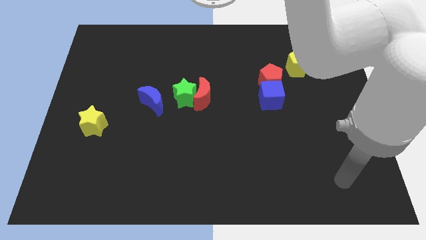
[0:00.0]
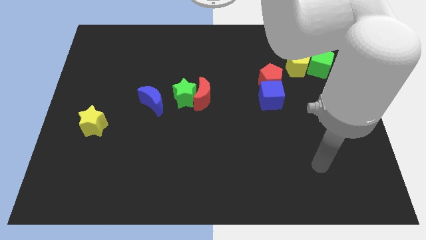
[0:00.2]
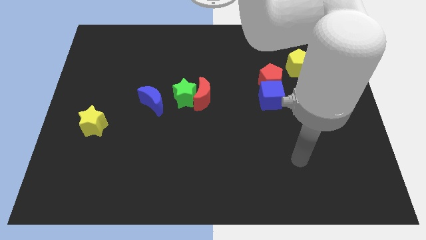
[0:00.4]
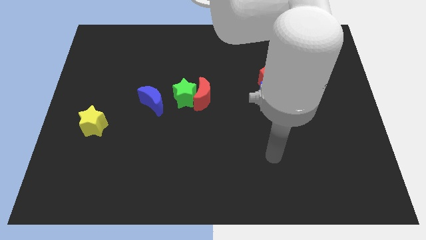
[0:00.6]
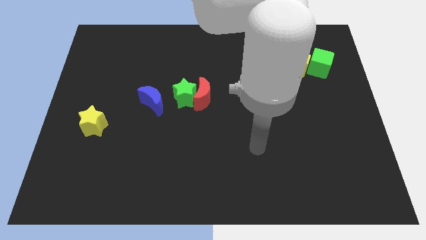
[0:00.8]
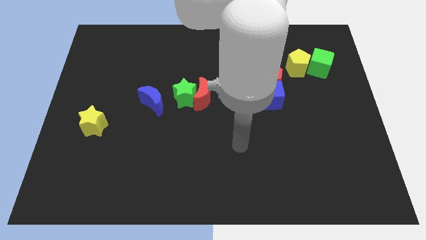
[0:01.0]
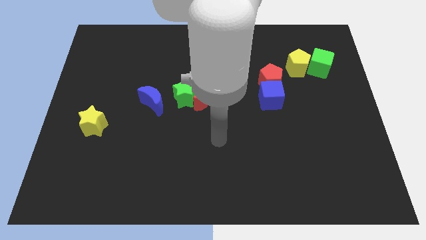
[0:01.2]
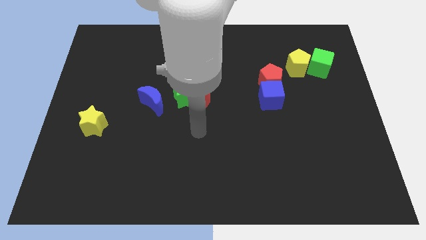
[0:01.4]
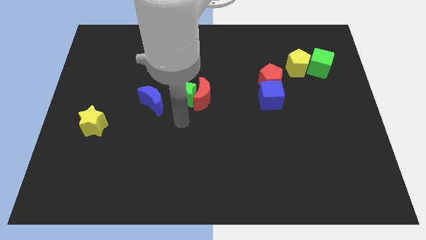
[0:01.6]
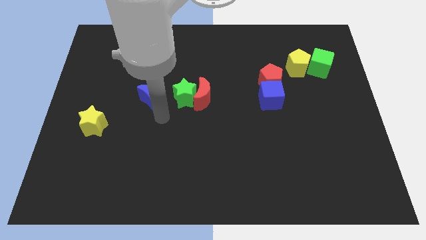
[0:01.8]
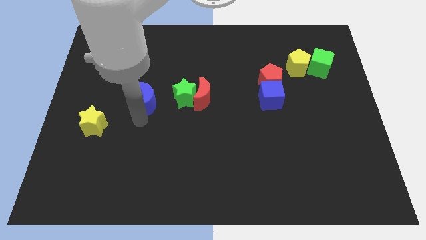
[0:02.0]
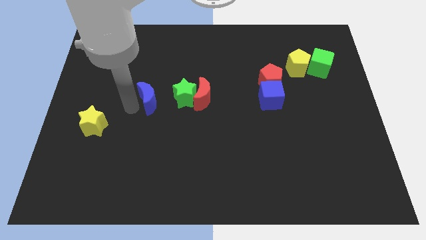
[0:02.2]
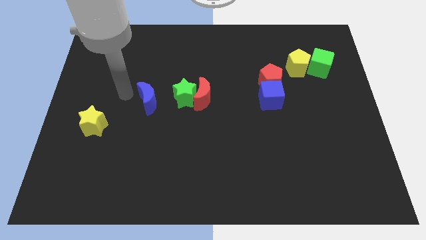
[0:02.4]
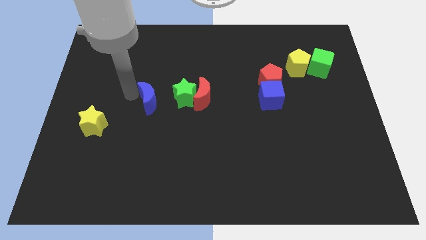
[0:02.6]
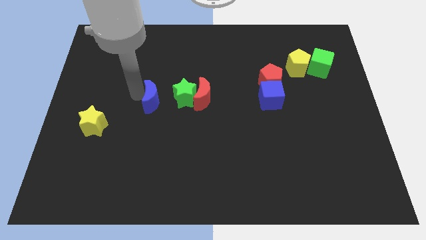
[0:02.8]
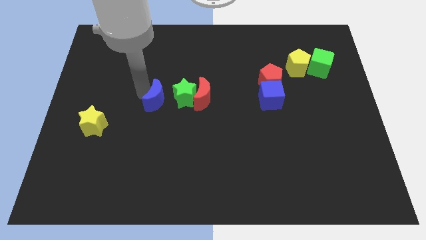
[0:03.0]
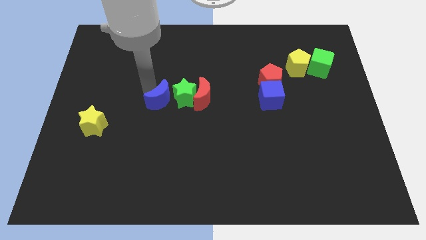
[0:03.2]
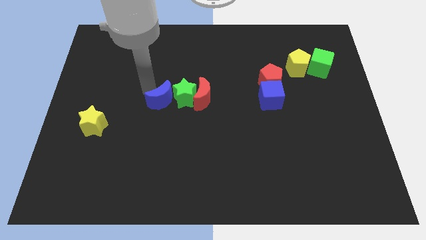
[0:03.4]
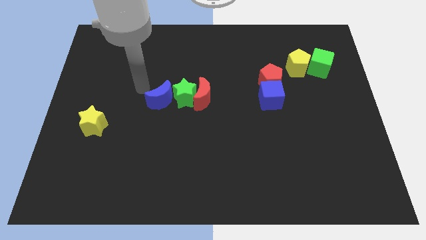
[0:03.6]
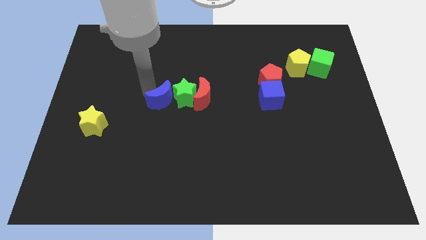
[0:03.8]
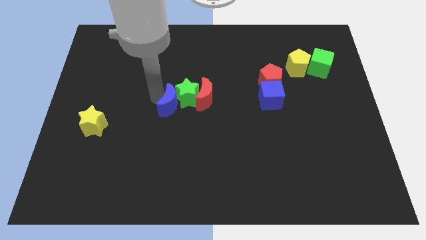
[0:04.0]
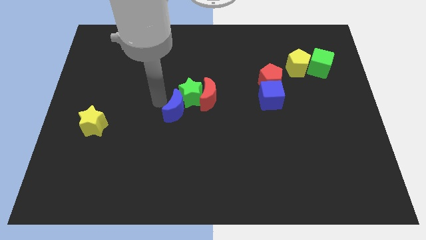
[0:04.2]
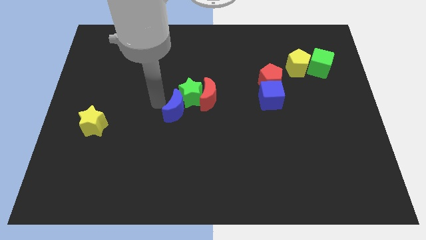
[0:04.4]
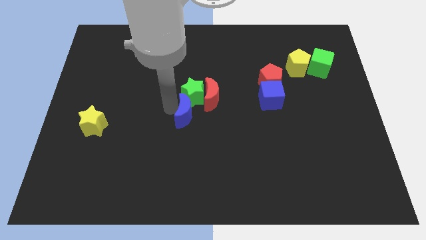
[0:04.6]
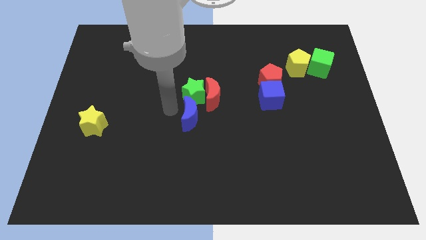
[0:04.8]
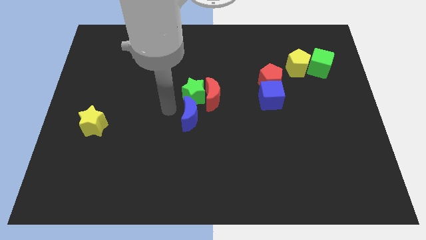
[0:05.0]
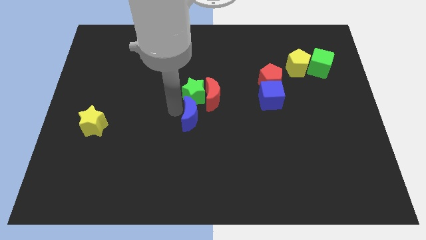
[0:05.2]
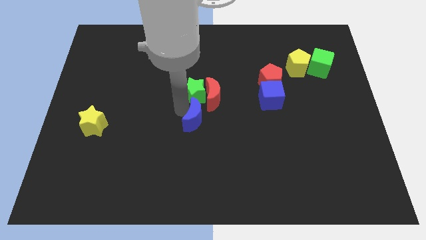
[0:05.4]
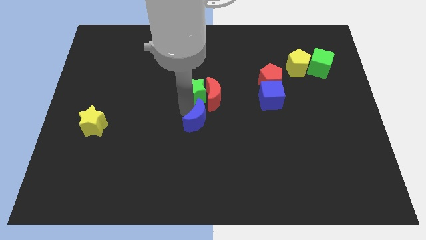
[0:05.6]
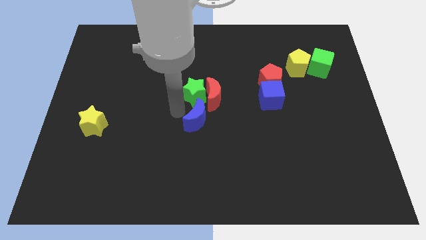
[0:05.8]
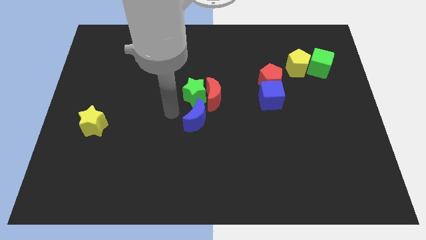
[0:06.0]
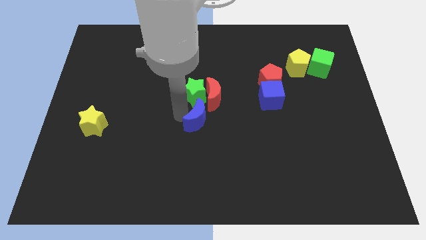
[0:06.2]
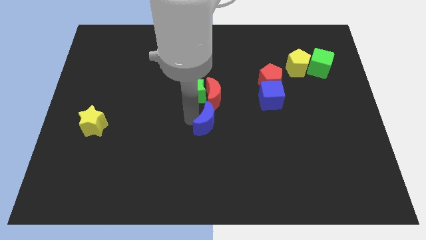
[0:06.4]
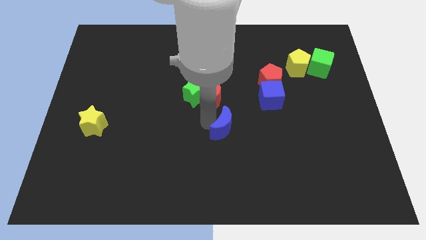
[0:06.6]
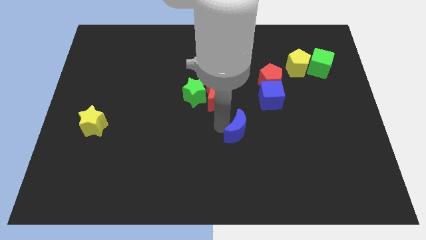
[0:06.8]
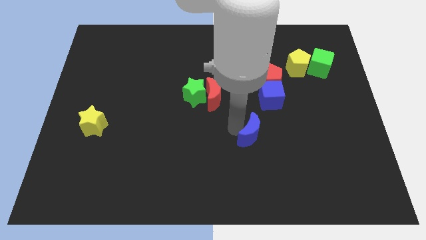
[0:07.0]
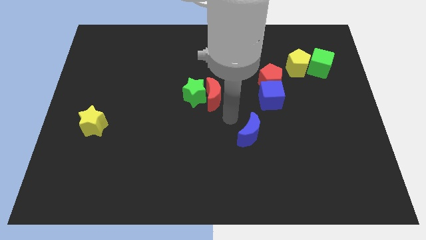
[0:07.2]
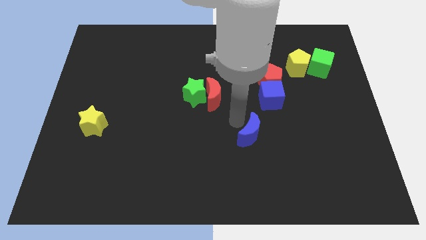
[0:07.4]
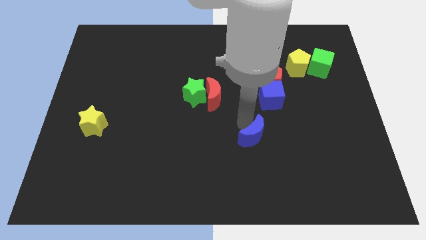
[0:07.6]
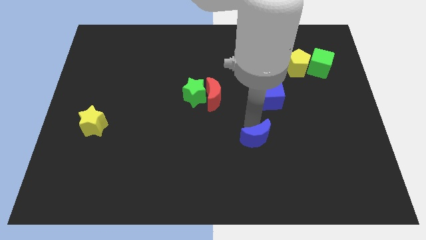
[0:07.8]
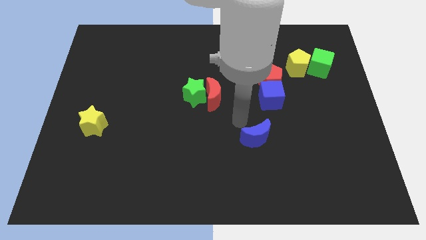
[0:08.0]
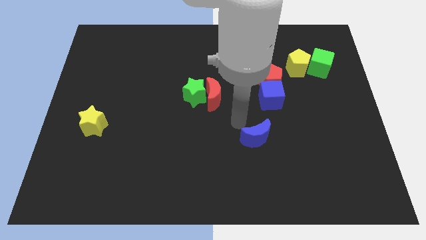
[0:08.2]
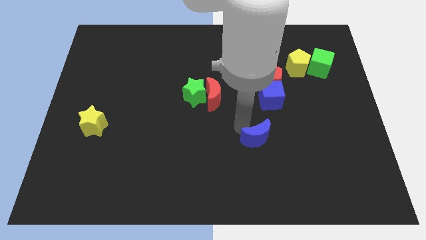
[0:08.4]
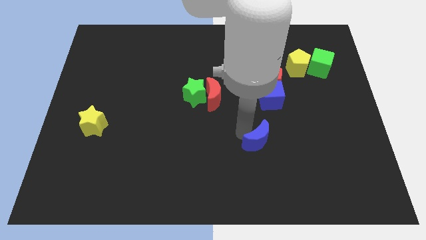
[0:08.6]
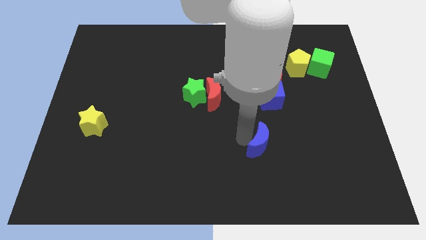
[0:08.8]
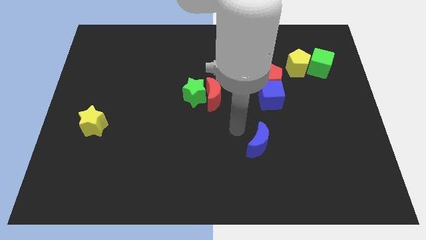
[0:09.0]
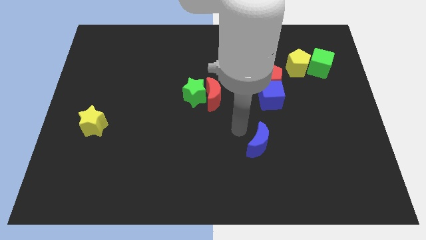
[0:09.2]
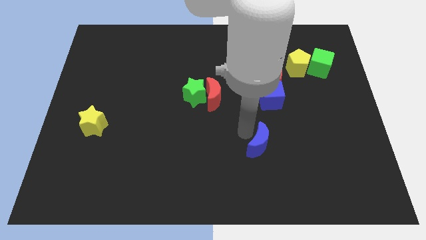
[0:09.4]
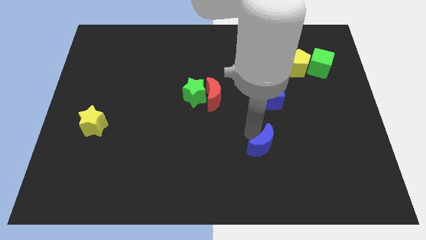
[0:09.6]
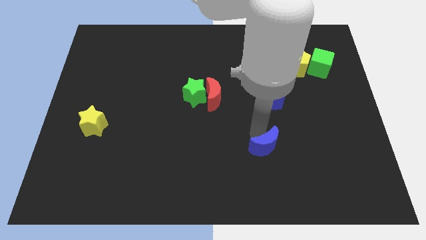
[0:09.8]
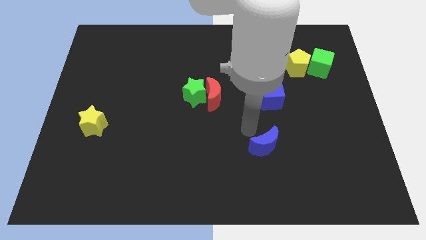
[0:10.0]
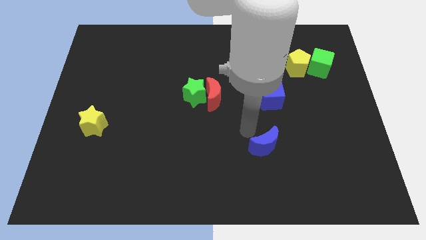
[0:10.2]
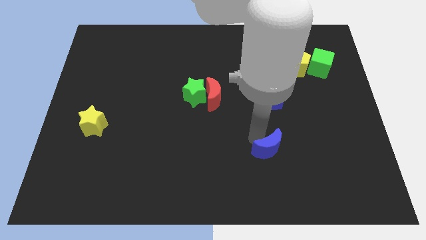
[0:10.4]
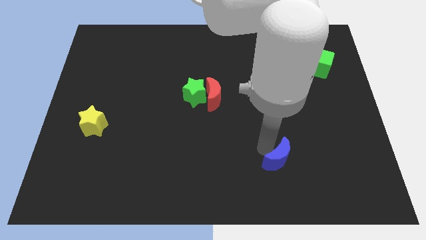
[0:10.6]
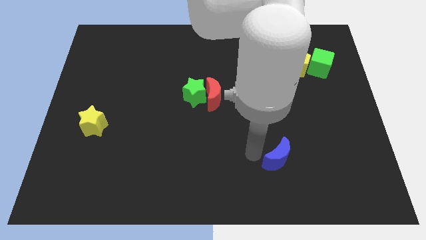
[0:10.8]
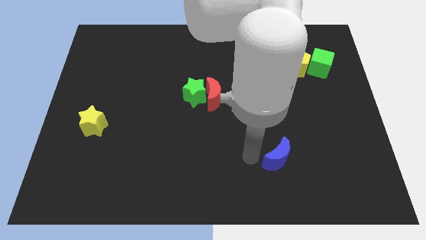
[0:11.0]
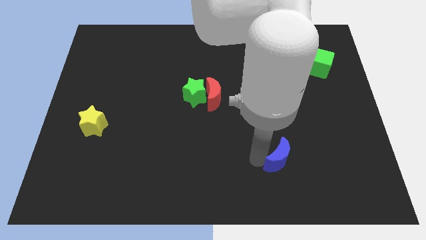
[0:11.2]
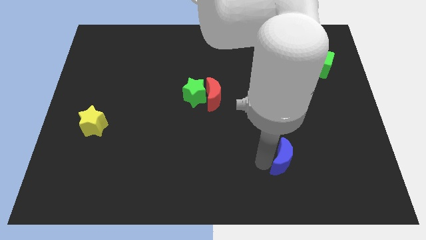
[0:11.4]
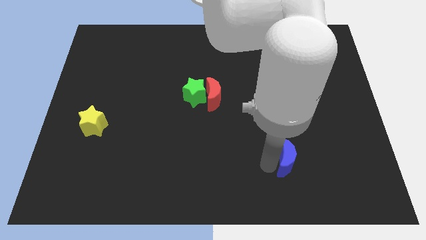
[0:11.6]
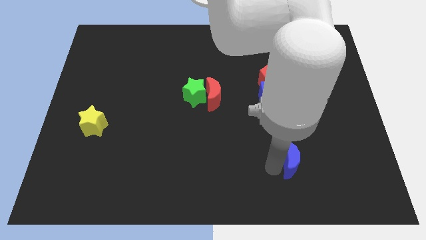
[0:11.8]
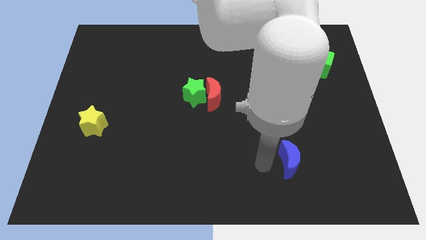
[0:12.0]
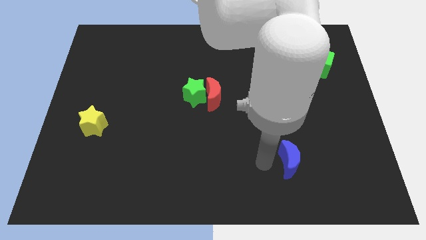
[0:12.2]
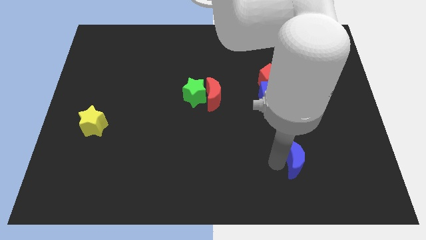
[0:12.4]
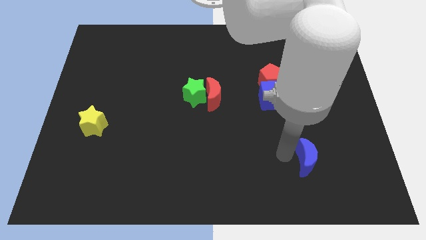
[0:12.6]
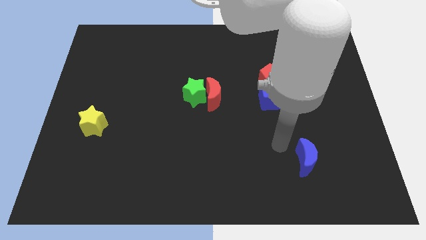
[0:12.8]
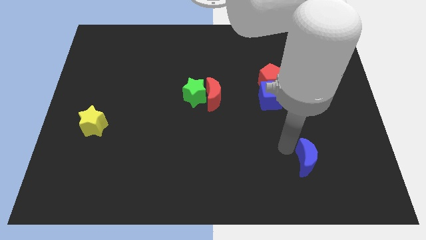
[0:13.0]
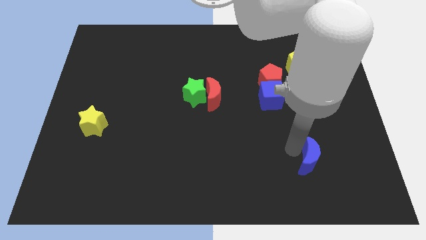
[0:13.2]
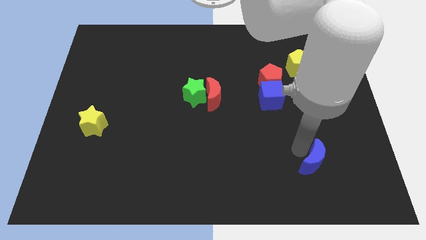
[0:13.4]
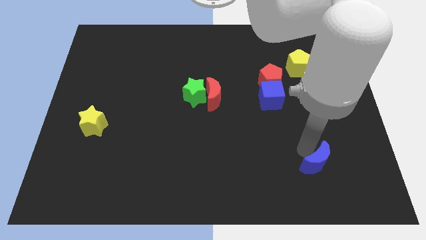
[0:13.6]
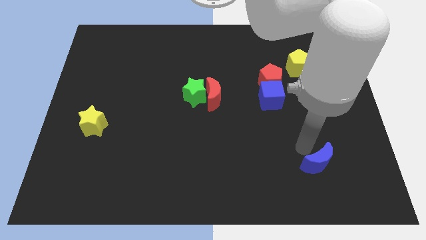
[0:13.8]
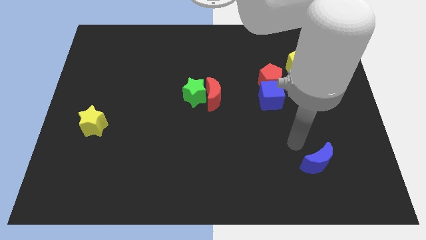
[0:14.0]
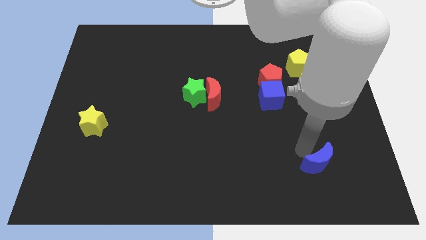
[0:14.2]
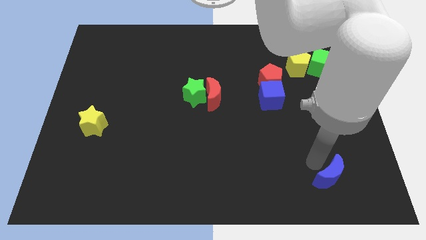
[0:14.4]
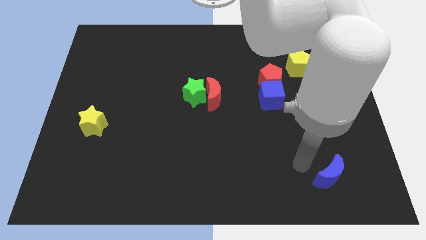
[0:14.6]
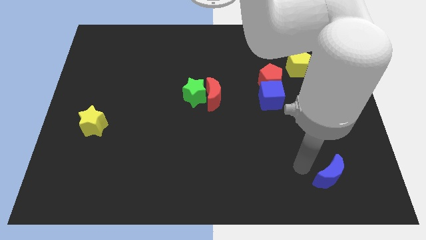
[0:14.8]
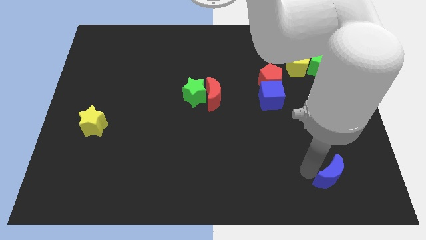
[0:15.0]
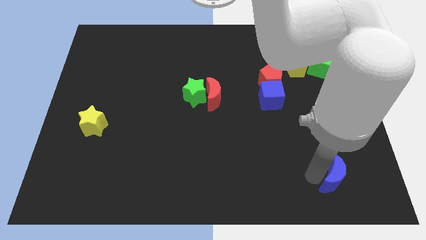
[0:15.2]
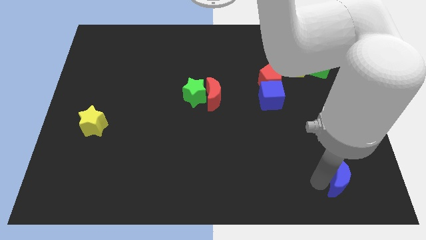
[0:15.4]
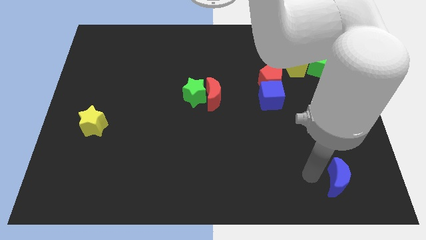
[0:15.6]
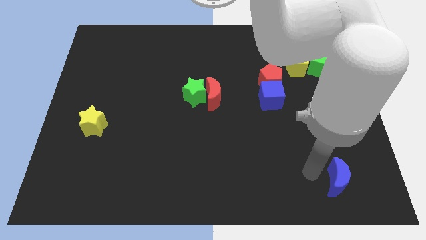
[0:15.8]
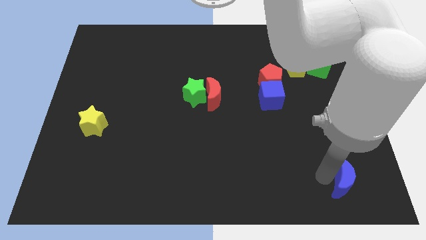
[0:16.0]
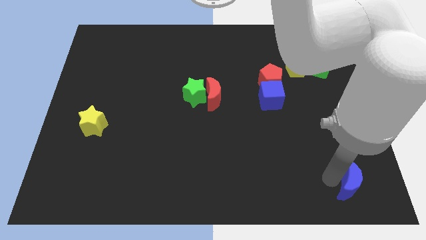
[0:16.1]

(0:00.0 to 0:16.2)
slide the blue moon to the bottom right corner
